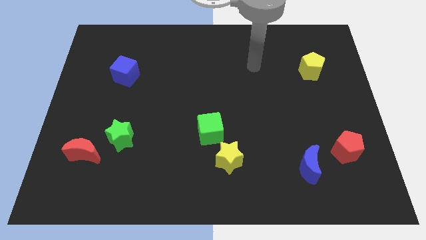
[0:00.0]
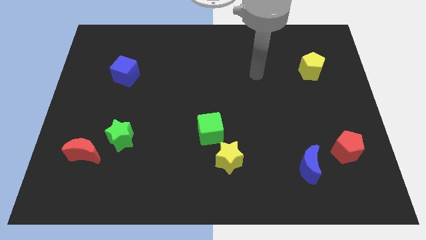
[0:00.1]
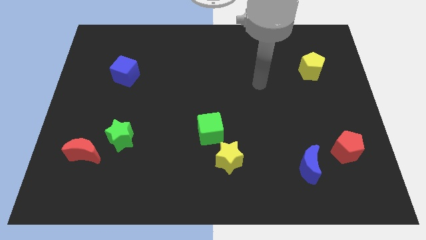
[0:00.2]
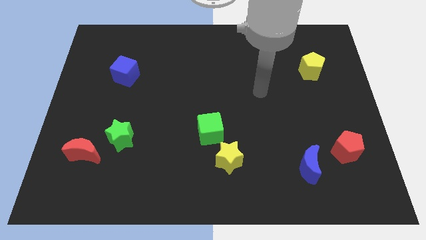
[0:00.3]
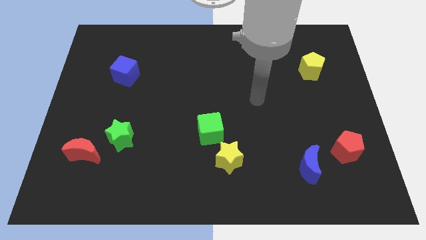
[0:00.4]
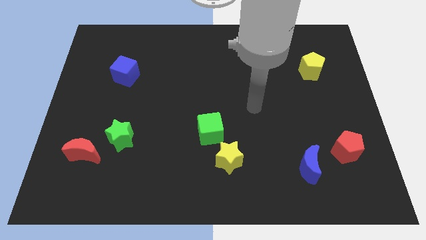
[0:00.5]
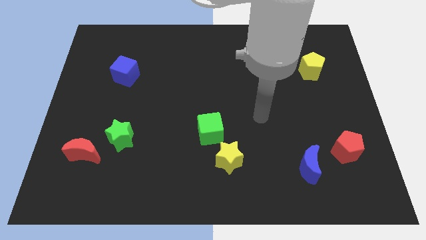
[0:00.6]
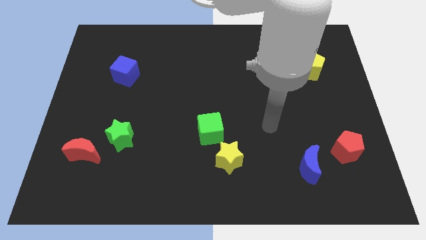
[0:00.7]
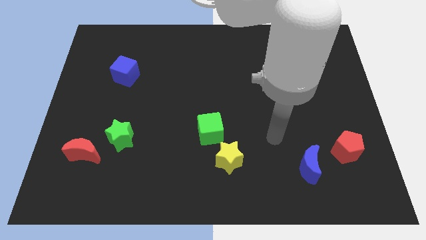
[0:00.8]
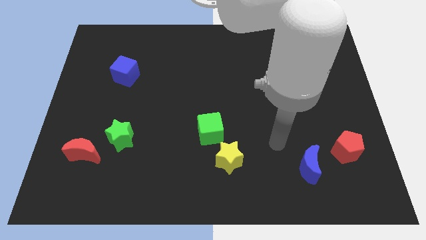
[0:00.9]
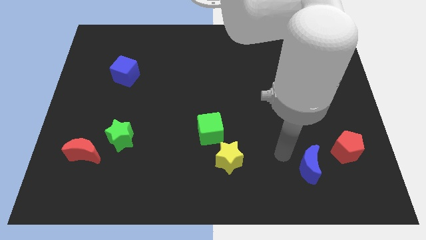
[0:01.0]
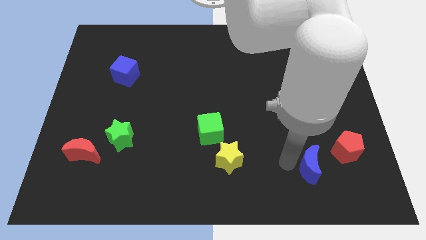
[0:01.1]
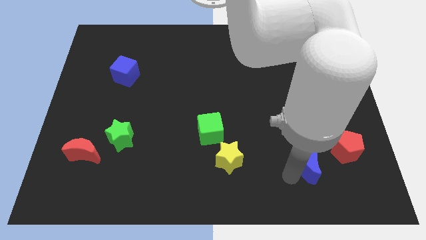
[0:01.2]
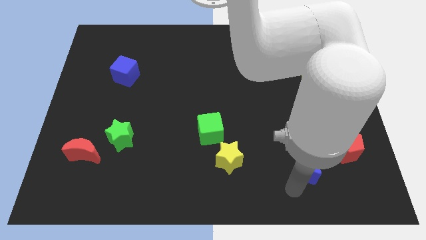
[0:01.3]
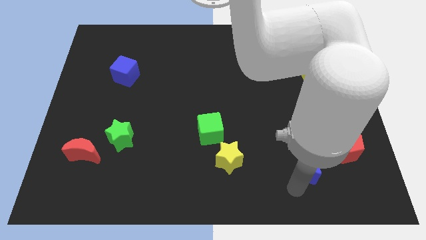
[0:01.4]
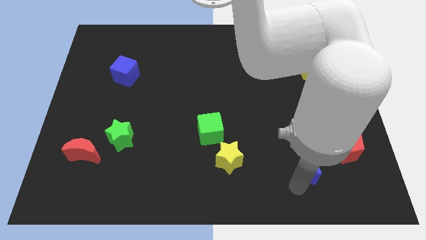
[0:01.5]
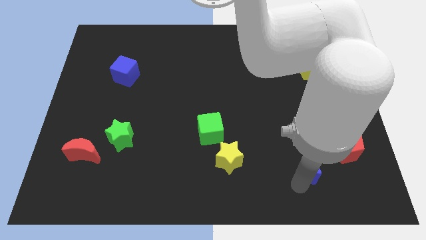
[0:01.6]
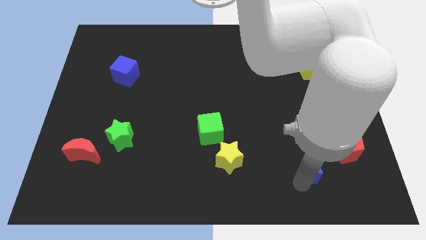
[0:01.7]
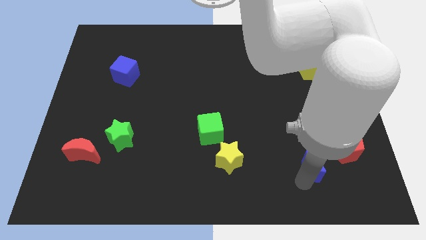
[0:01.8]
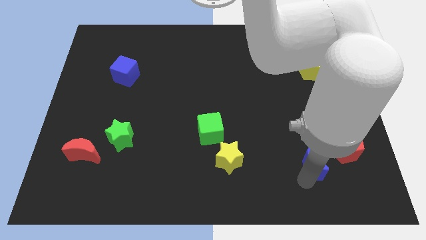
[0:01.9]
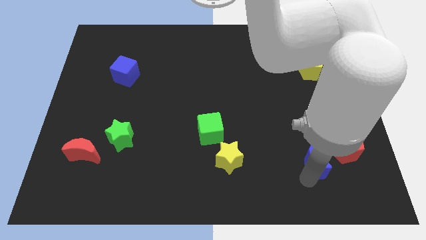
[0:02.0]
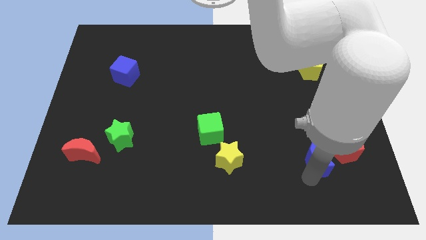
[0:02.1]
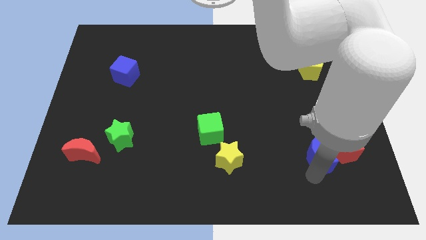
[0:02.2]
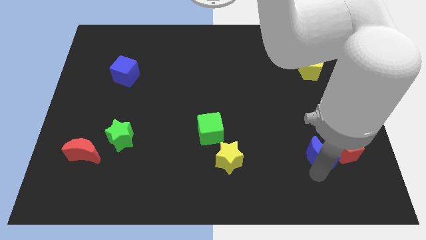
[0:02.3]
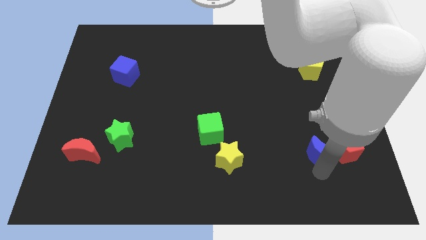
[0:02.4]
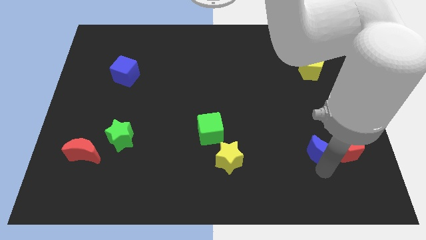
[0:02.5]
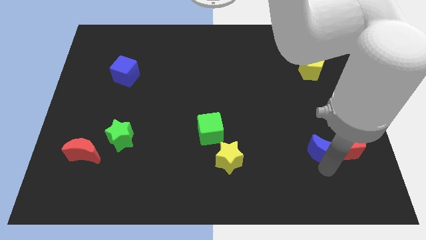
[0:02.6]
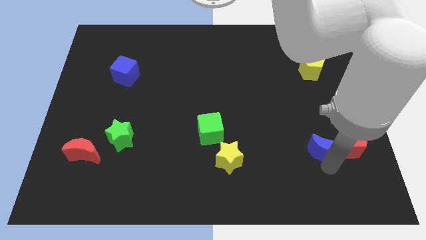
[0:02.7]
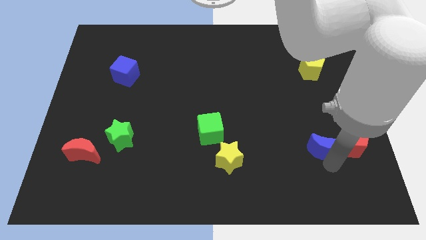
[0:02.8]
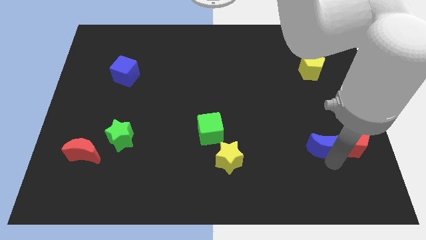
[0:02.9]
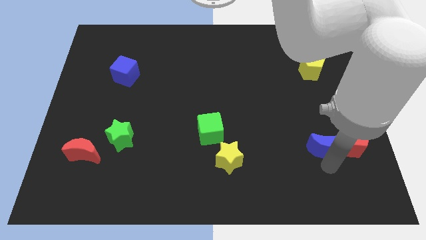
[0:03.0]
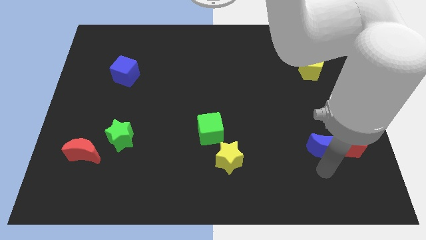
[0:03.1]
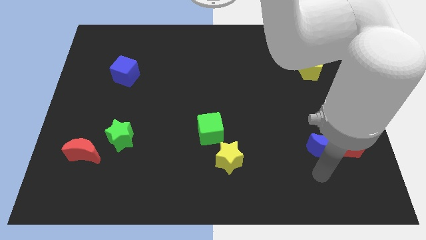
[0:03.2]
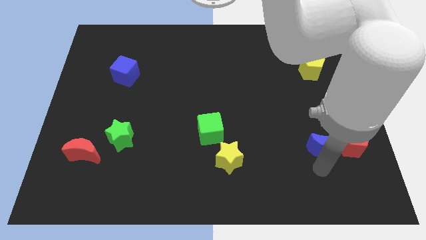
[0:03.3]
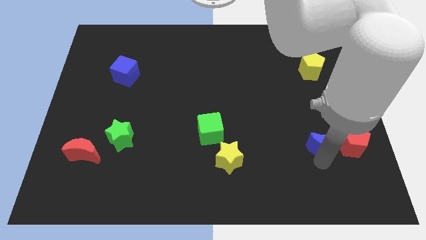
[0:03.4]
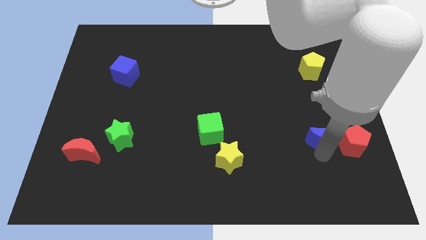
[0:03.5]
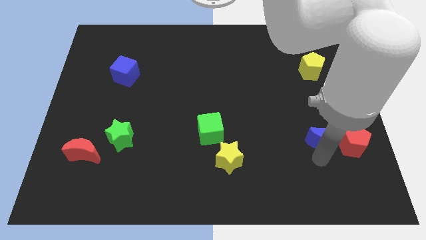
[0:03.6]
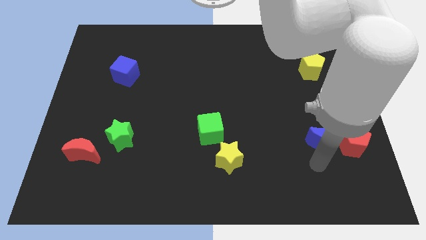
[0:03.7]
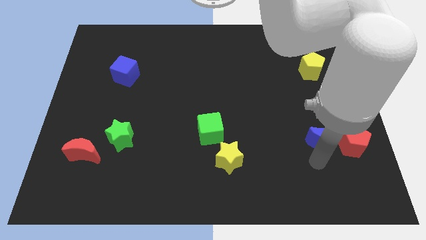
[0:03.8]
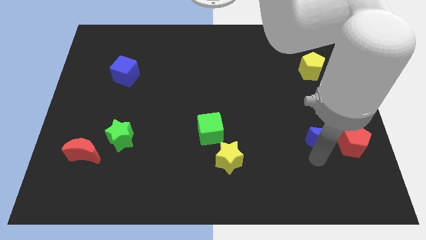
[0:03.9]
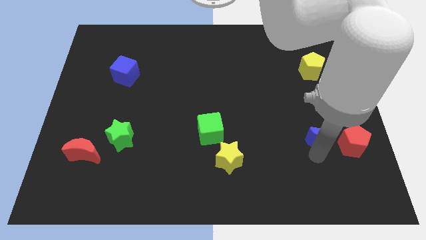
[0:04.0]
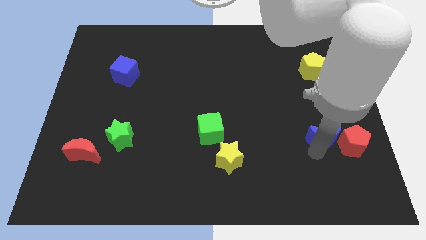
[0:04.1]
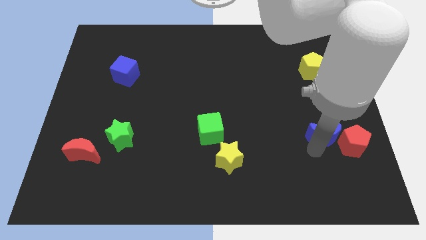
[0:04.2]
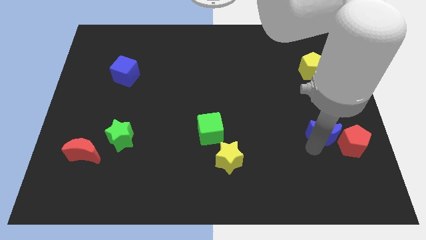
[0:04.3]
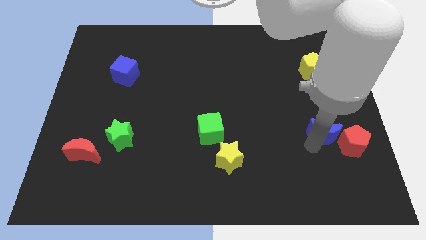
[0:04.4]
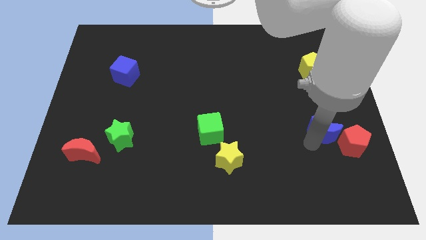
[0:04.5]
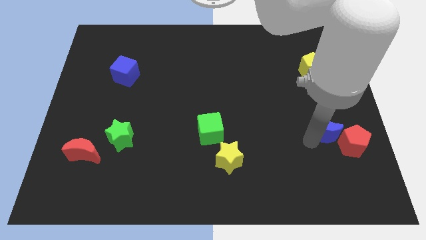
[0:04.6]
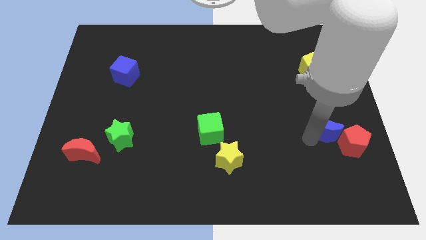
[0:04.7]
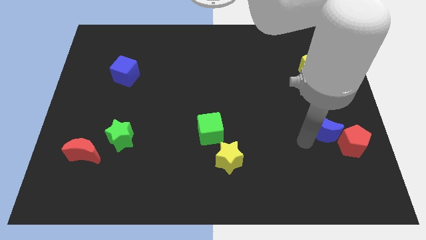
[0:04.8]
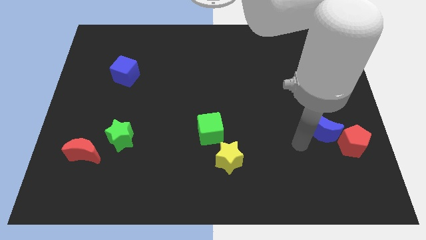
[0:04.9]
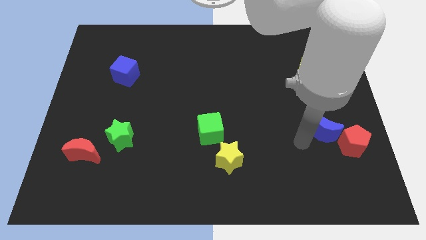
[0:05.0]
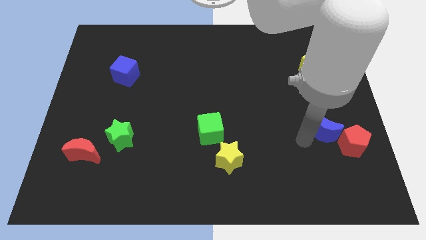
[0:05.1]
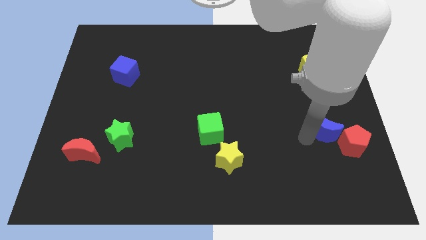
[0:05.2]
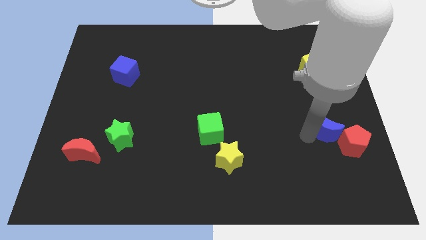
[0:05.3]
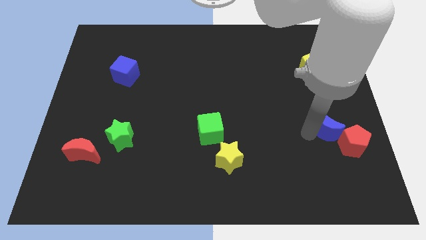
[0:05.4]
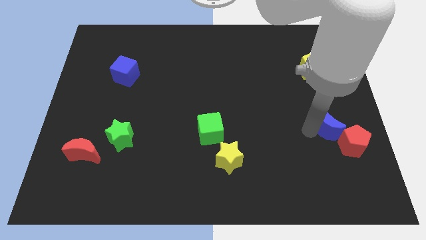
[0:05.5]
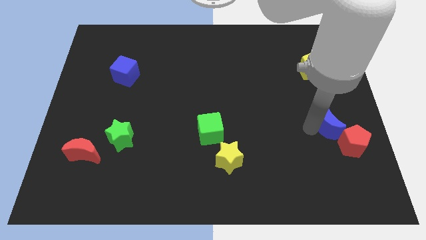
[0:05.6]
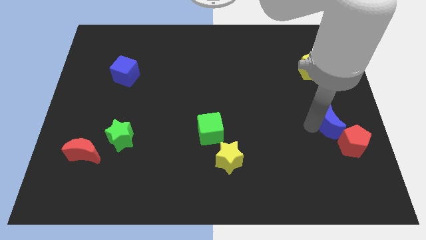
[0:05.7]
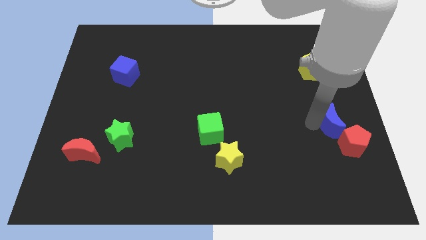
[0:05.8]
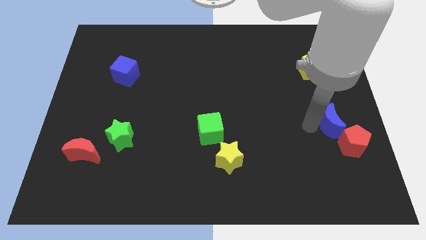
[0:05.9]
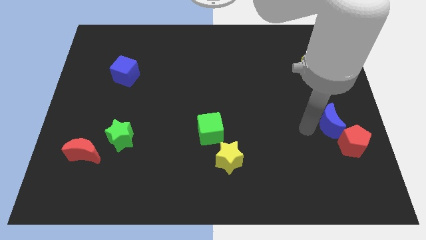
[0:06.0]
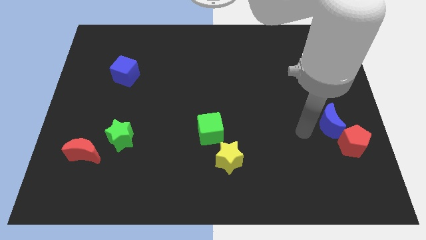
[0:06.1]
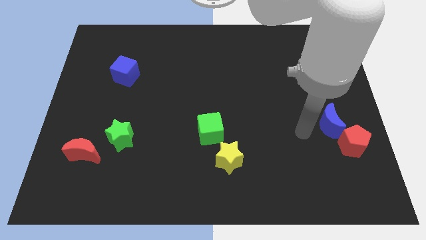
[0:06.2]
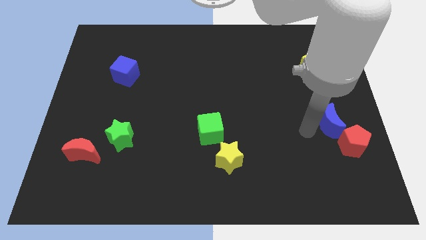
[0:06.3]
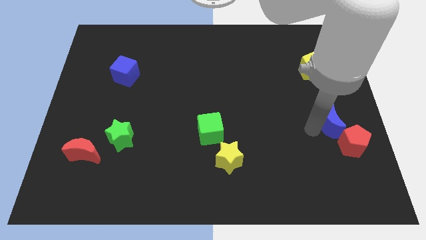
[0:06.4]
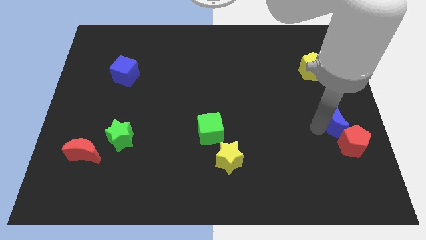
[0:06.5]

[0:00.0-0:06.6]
move the blue moon to the right side

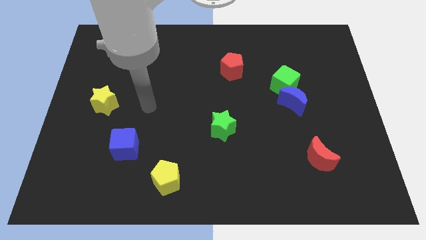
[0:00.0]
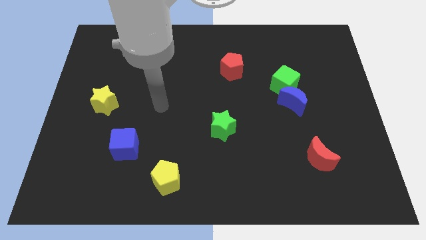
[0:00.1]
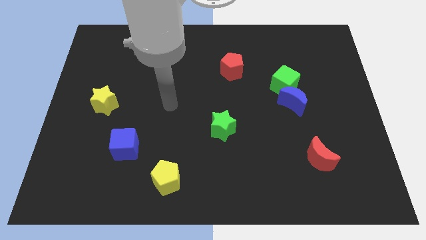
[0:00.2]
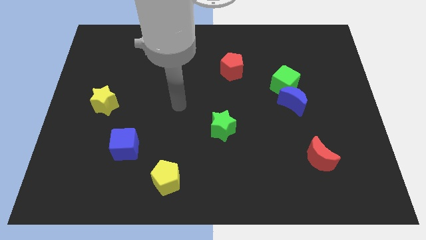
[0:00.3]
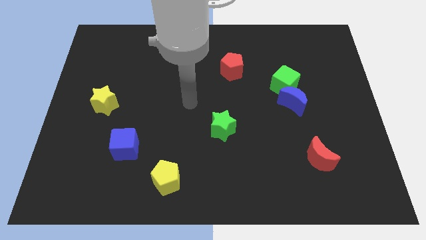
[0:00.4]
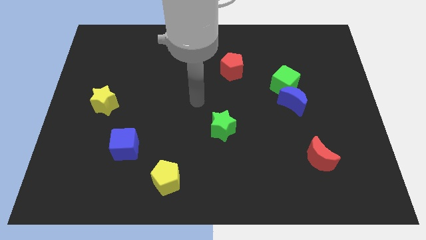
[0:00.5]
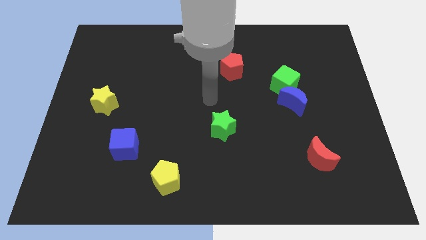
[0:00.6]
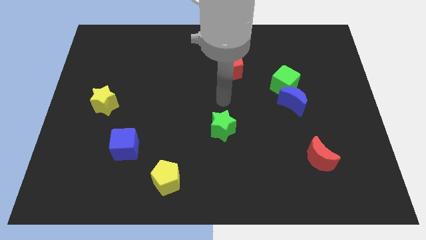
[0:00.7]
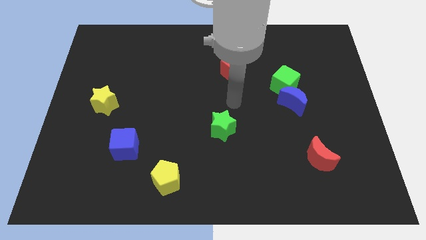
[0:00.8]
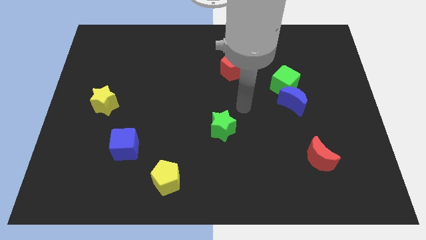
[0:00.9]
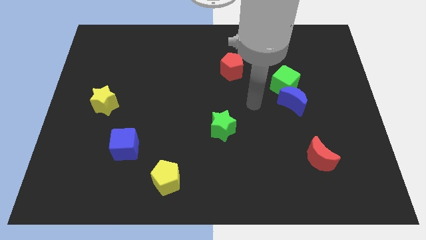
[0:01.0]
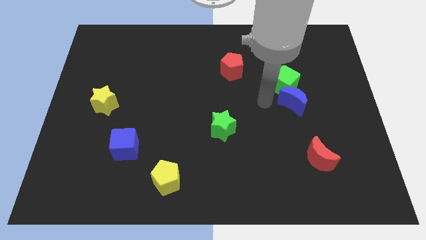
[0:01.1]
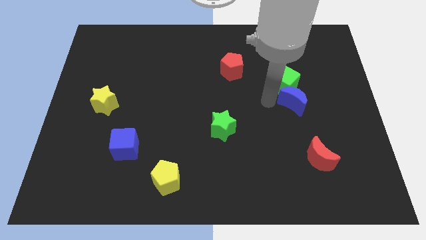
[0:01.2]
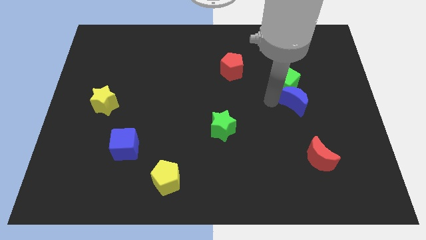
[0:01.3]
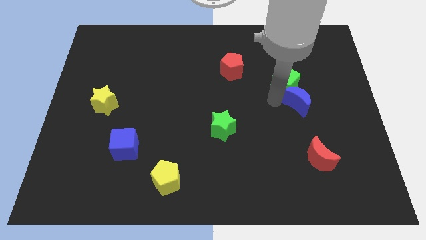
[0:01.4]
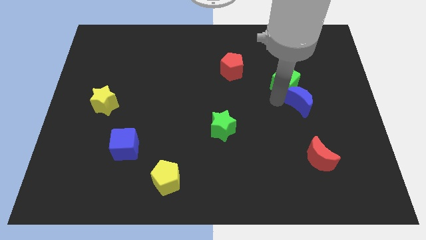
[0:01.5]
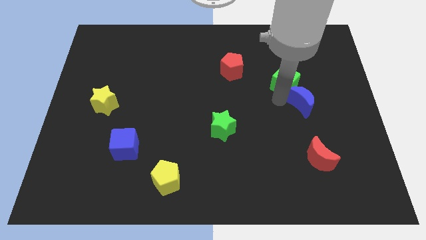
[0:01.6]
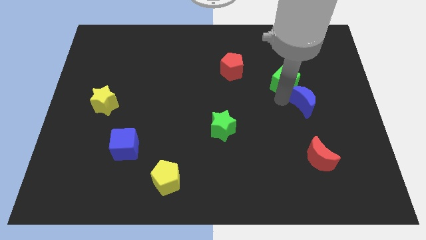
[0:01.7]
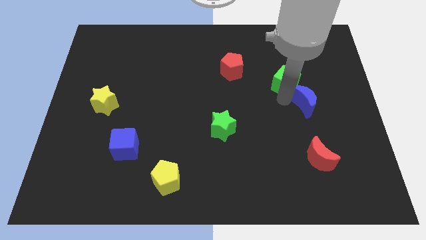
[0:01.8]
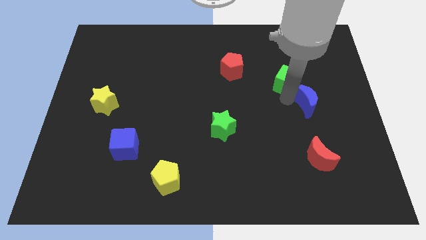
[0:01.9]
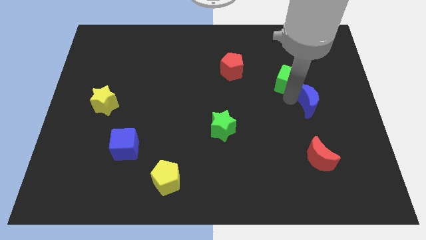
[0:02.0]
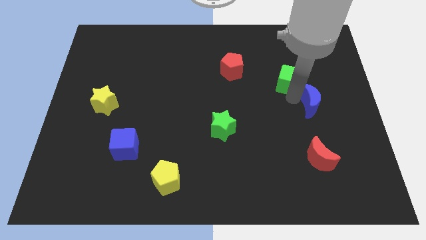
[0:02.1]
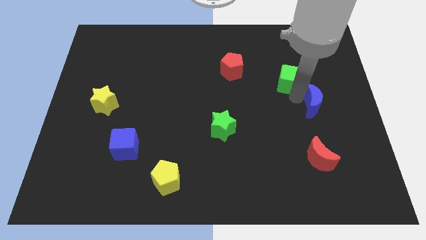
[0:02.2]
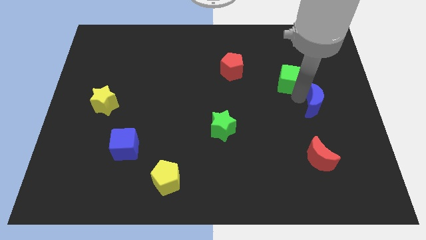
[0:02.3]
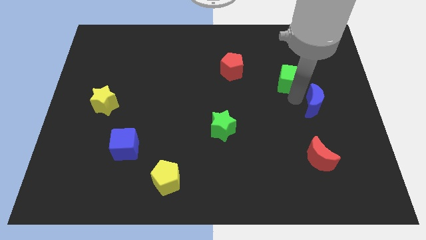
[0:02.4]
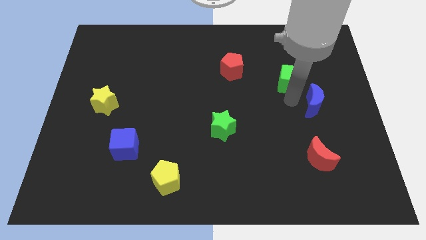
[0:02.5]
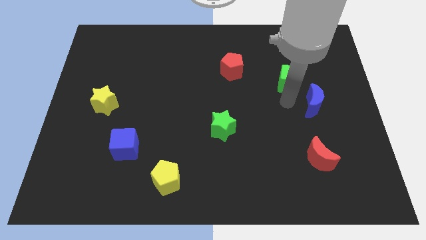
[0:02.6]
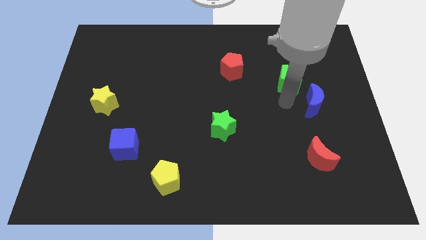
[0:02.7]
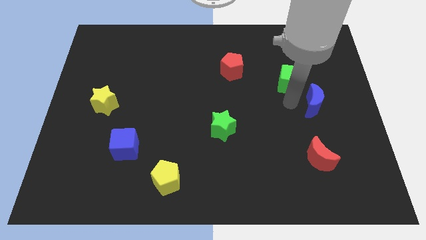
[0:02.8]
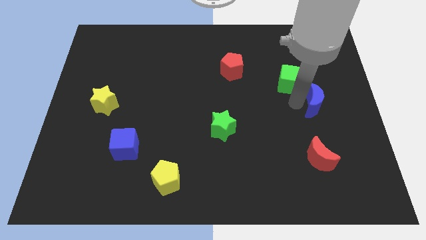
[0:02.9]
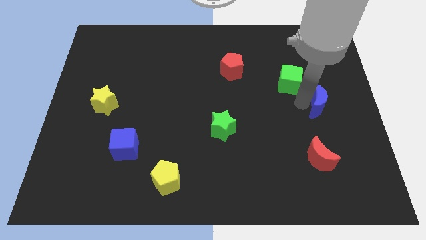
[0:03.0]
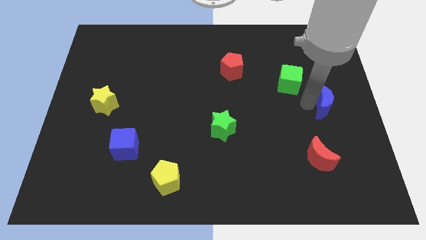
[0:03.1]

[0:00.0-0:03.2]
push the blue moon to the center right
